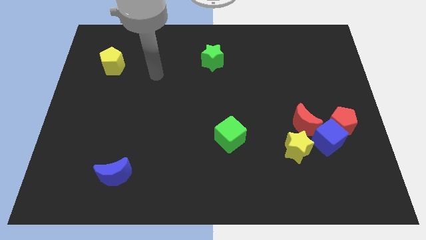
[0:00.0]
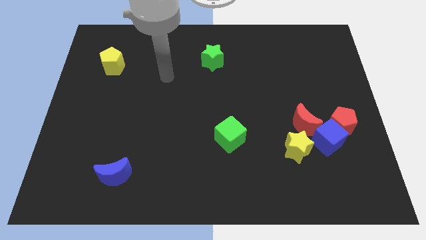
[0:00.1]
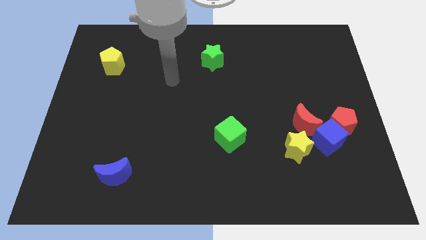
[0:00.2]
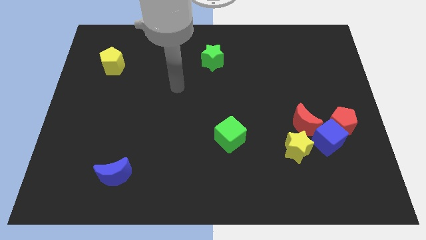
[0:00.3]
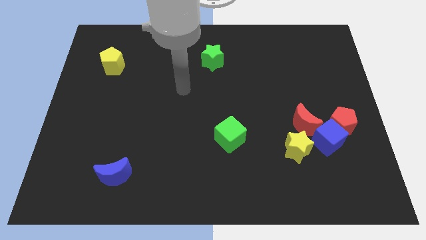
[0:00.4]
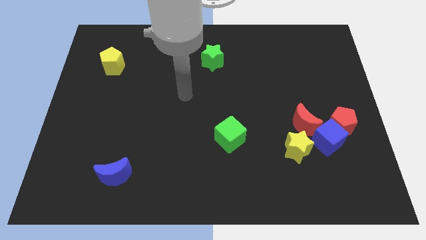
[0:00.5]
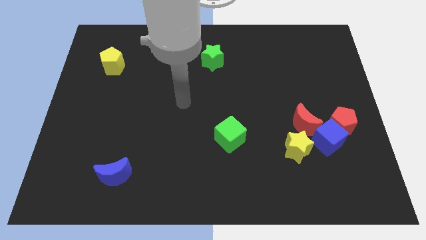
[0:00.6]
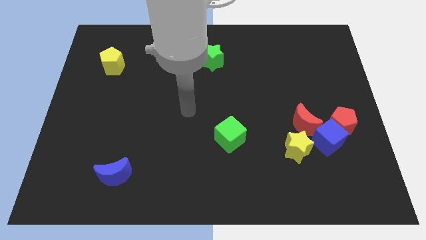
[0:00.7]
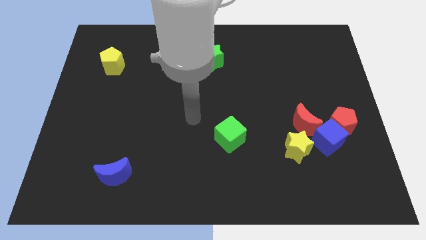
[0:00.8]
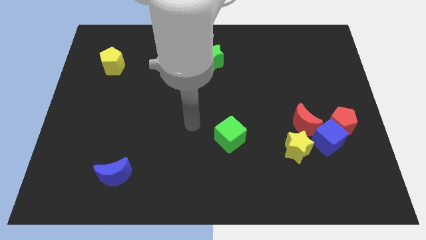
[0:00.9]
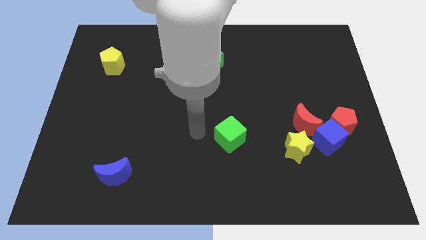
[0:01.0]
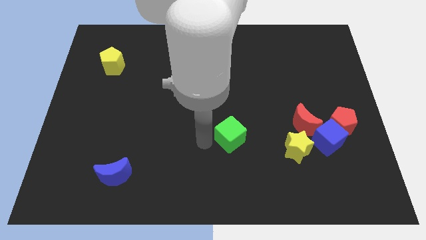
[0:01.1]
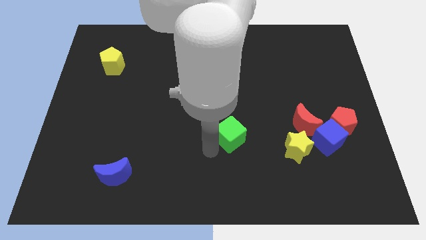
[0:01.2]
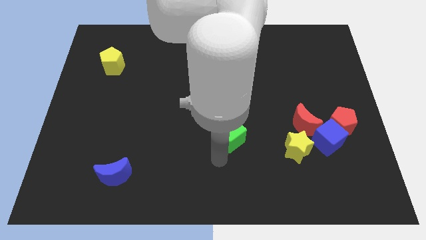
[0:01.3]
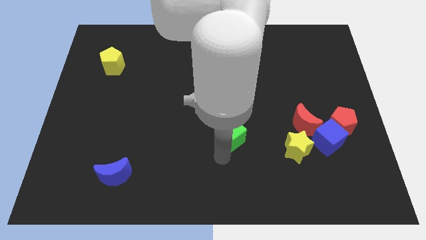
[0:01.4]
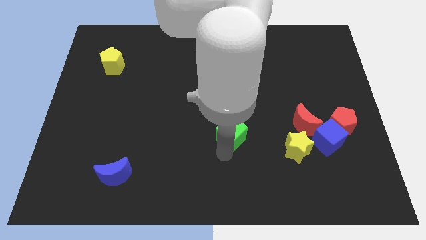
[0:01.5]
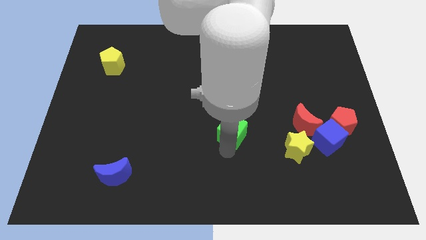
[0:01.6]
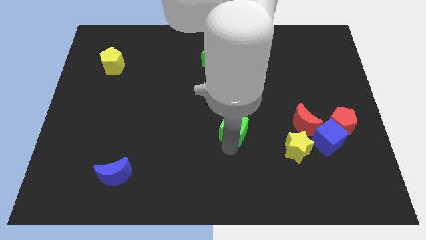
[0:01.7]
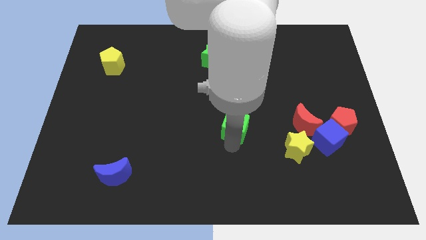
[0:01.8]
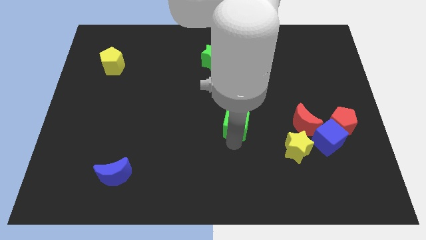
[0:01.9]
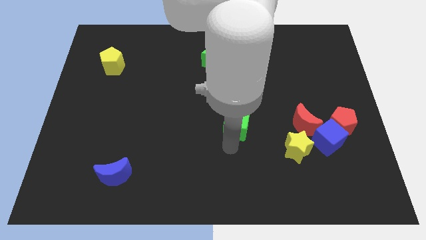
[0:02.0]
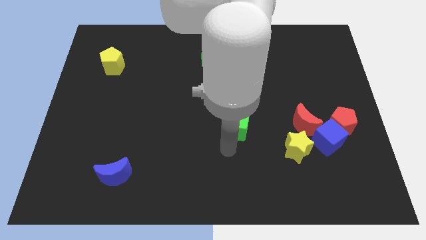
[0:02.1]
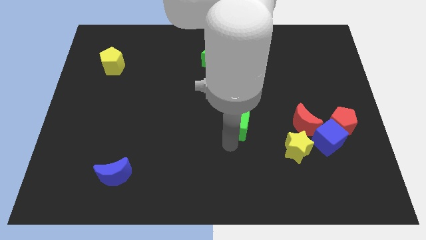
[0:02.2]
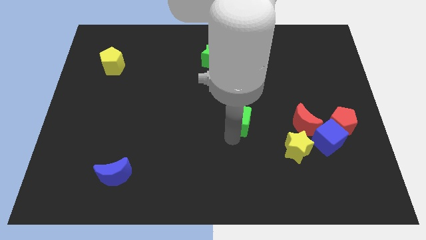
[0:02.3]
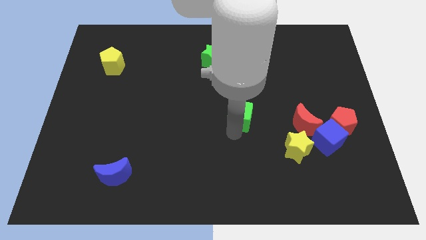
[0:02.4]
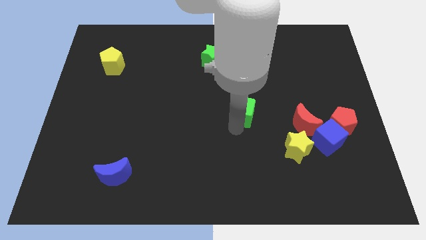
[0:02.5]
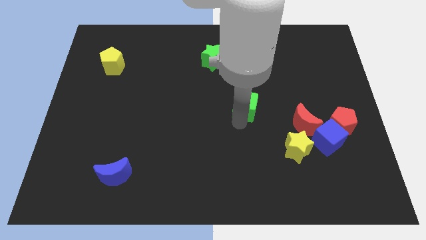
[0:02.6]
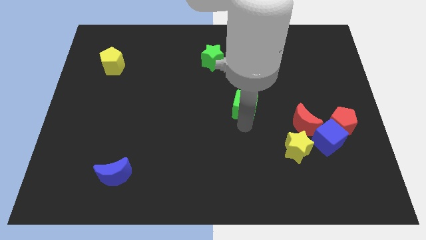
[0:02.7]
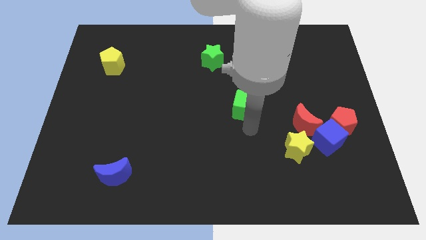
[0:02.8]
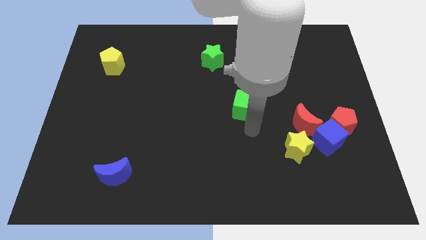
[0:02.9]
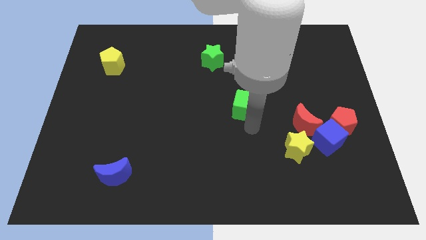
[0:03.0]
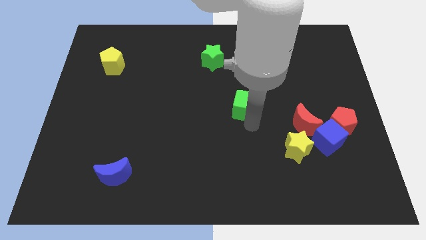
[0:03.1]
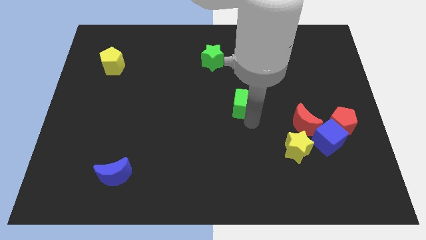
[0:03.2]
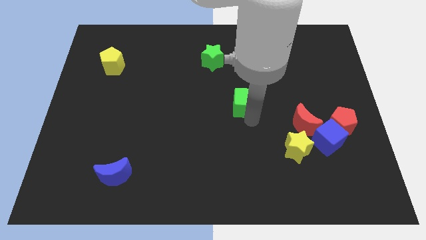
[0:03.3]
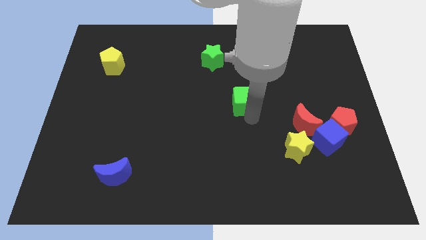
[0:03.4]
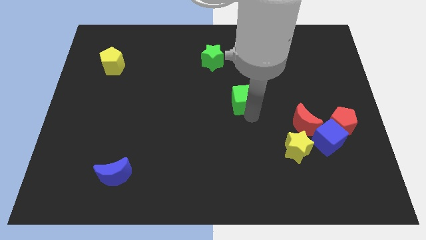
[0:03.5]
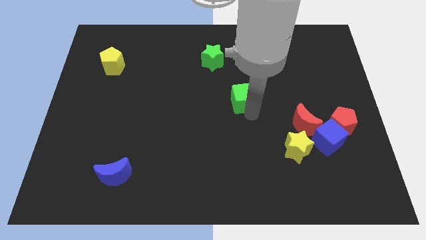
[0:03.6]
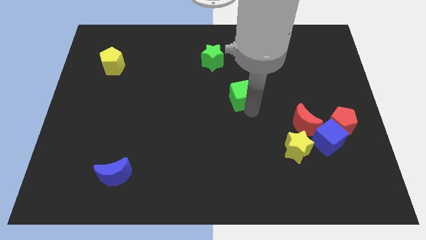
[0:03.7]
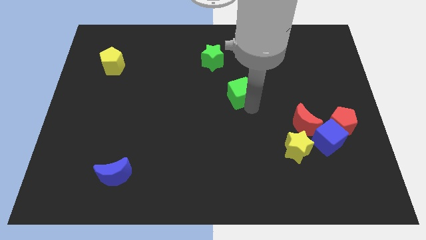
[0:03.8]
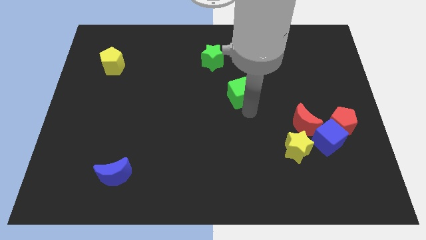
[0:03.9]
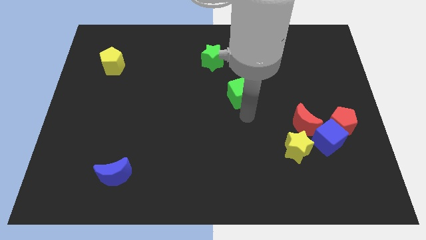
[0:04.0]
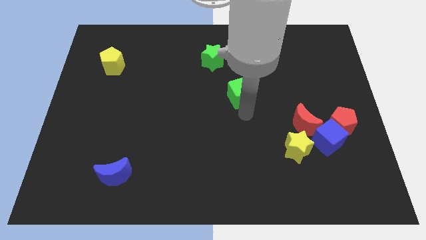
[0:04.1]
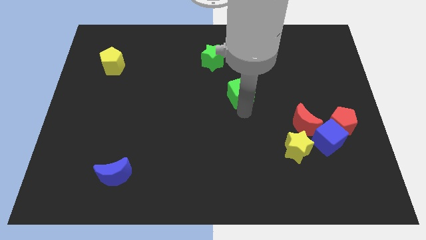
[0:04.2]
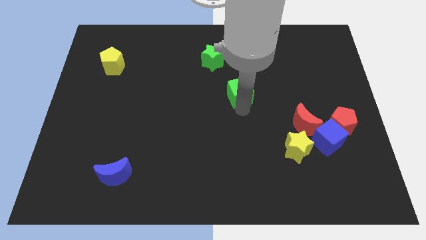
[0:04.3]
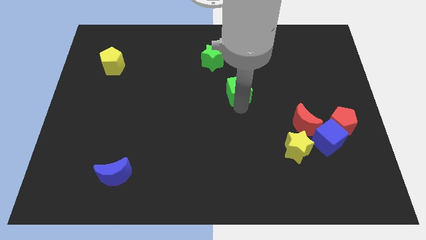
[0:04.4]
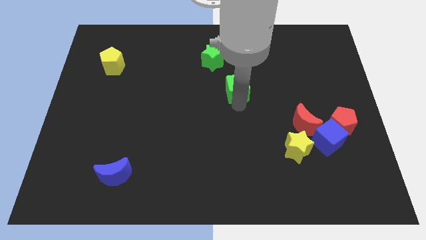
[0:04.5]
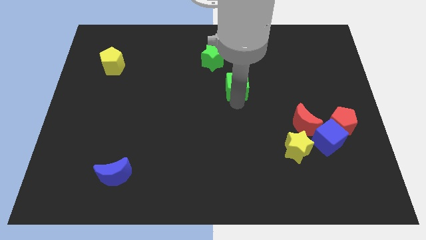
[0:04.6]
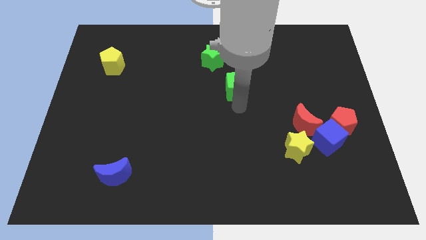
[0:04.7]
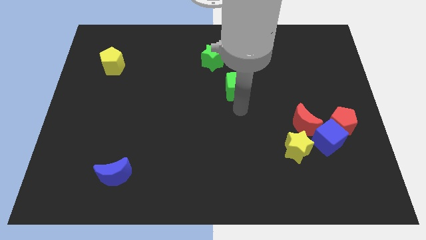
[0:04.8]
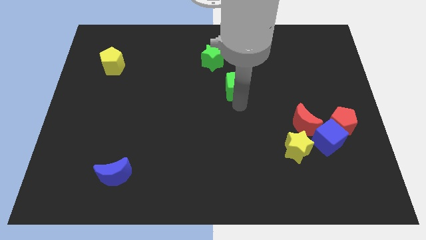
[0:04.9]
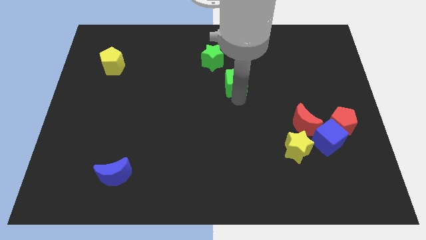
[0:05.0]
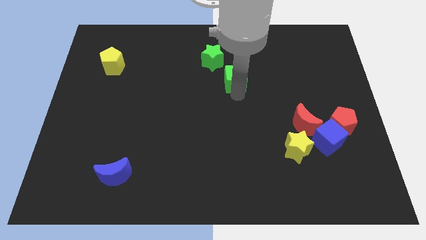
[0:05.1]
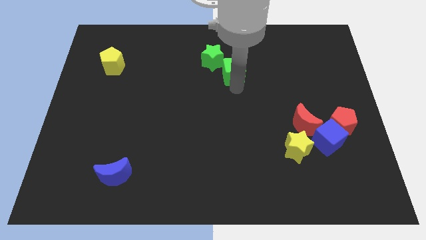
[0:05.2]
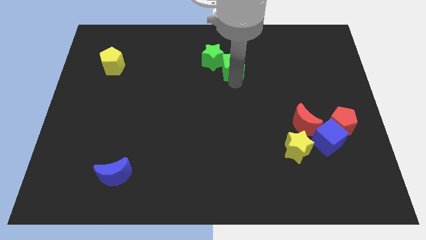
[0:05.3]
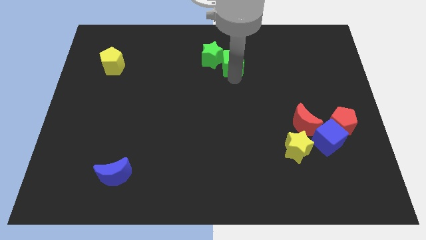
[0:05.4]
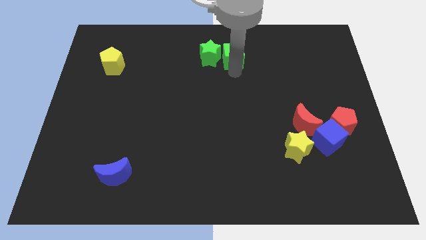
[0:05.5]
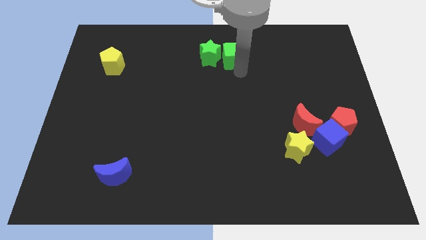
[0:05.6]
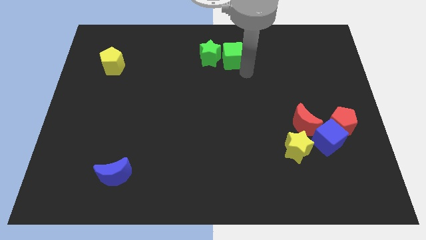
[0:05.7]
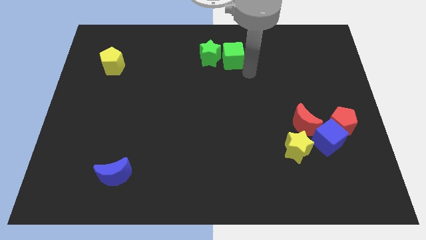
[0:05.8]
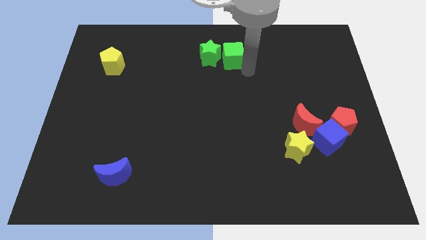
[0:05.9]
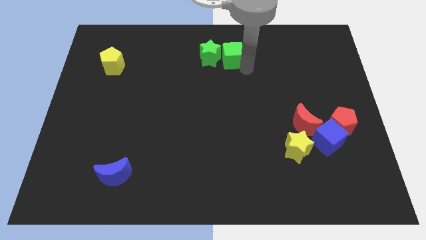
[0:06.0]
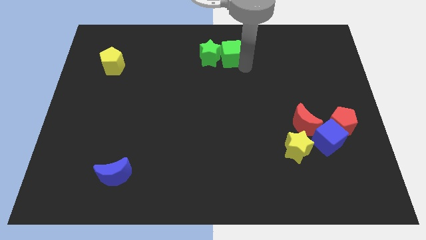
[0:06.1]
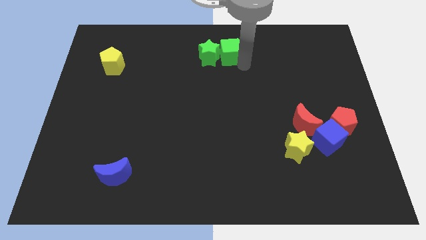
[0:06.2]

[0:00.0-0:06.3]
move the green cube to the top
